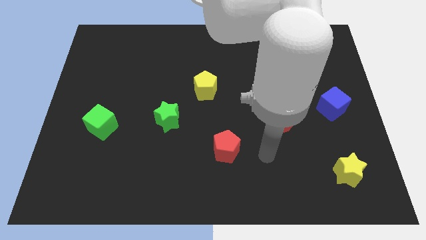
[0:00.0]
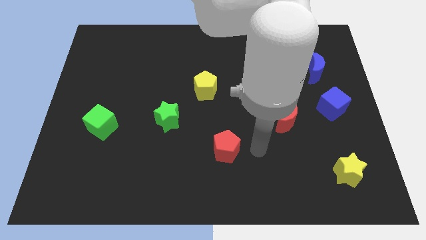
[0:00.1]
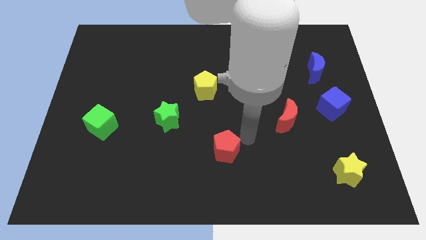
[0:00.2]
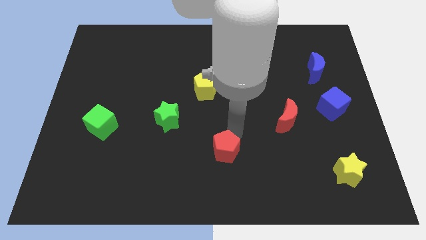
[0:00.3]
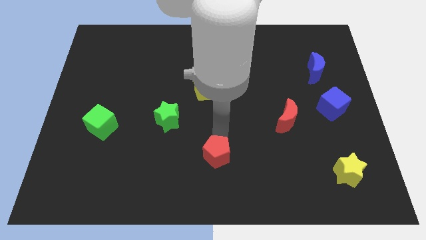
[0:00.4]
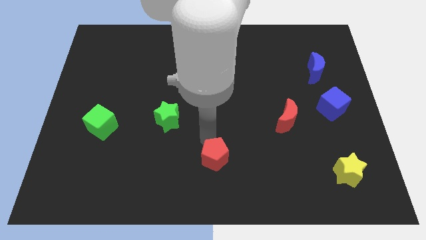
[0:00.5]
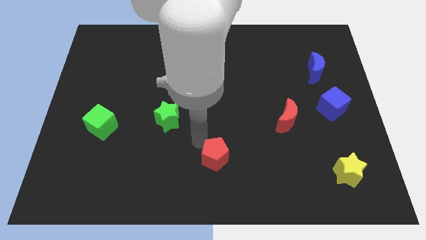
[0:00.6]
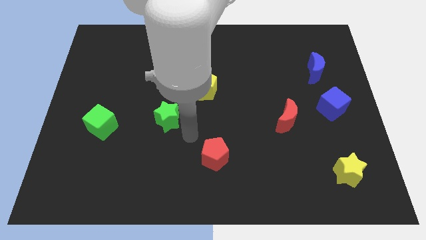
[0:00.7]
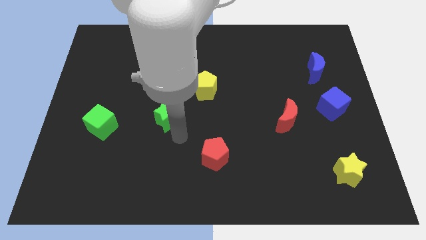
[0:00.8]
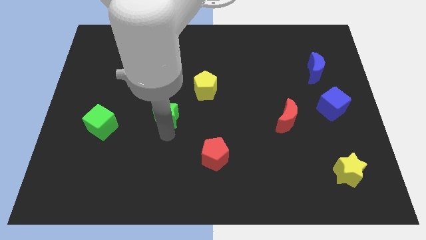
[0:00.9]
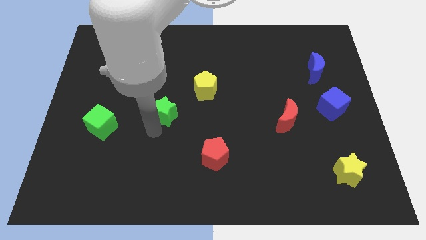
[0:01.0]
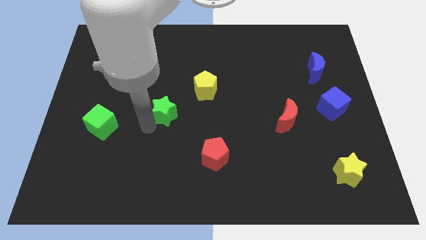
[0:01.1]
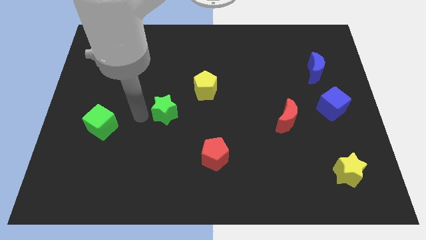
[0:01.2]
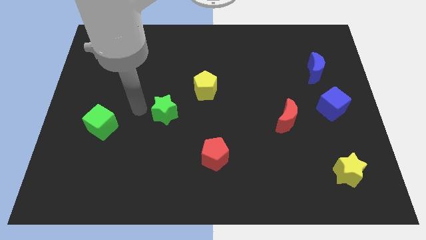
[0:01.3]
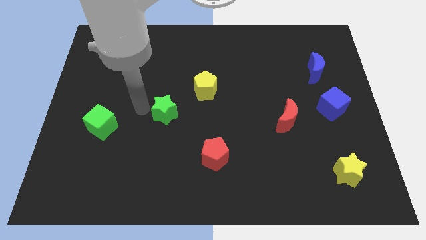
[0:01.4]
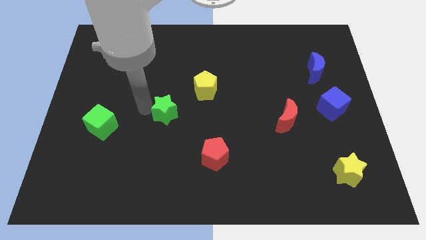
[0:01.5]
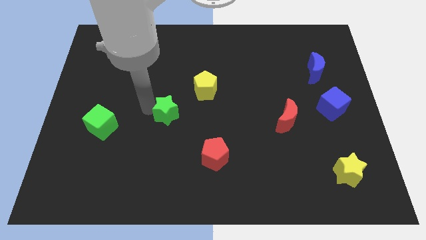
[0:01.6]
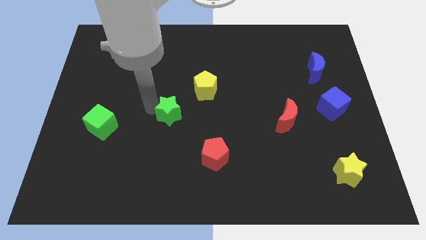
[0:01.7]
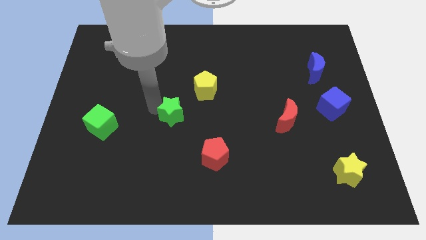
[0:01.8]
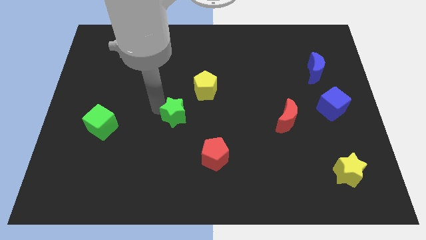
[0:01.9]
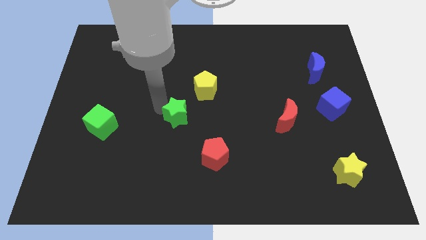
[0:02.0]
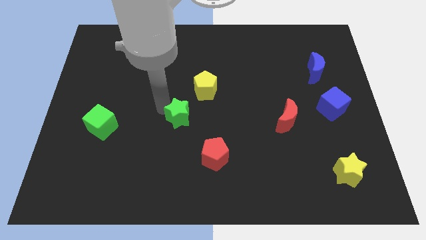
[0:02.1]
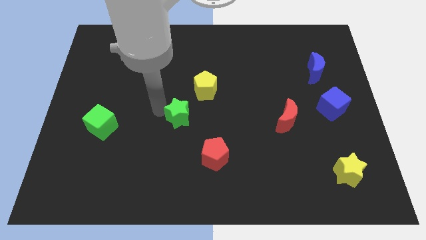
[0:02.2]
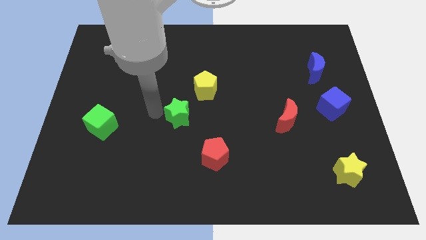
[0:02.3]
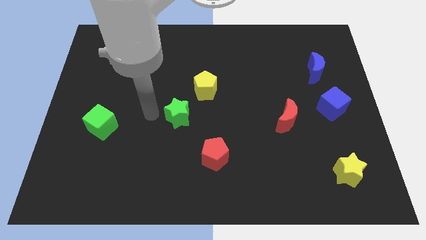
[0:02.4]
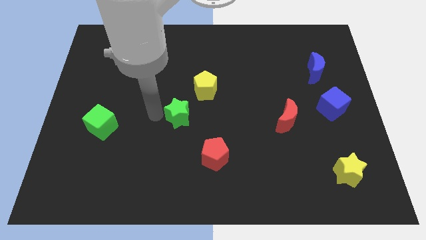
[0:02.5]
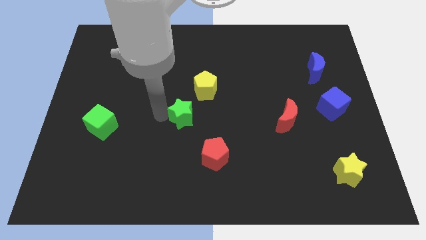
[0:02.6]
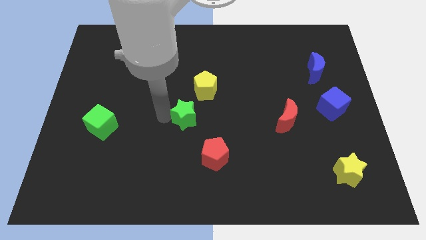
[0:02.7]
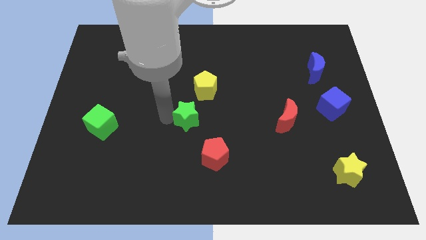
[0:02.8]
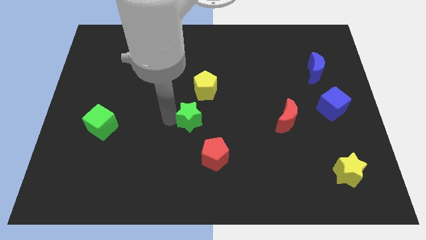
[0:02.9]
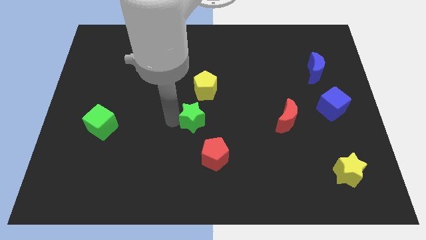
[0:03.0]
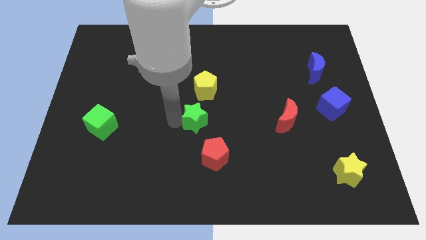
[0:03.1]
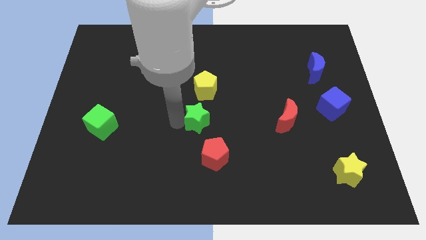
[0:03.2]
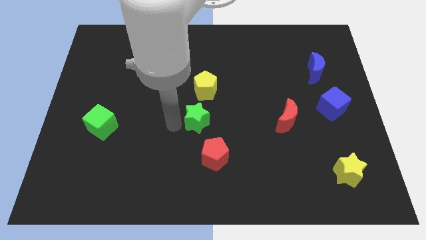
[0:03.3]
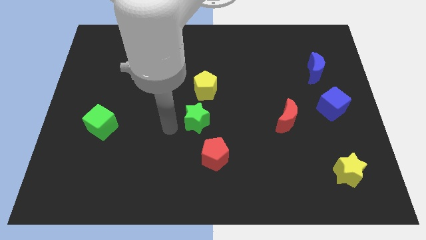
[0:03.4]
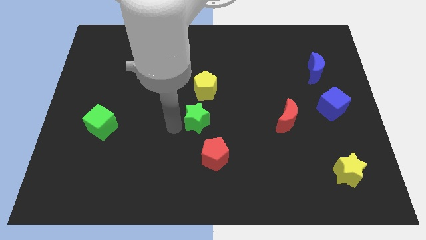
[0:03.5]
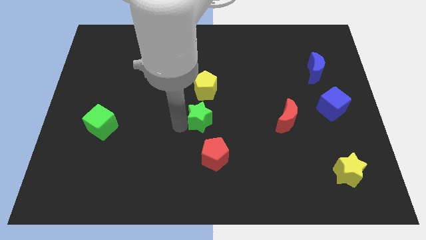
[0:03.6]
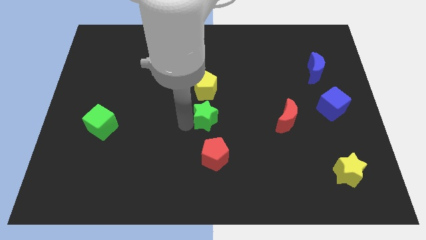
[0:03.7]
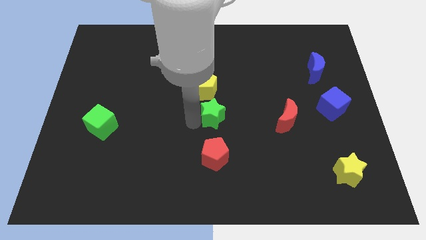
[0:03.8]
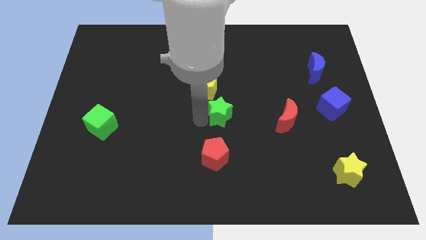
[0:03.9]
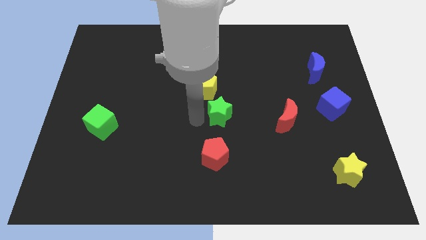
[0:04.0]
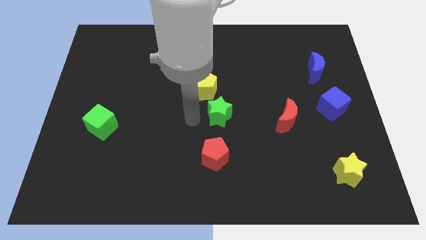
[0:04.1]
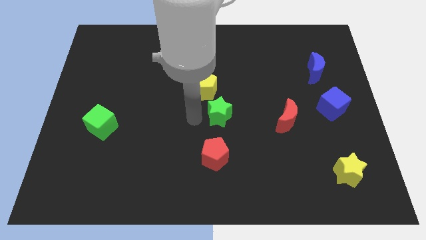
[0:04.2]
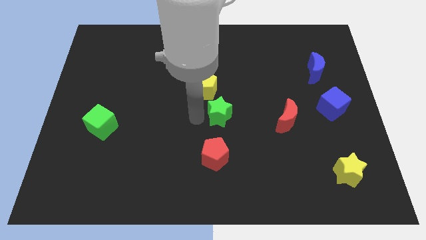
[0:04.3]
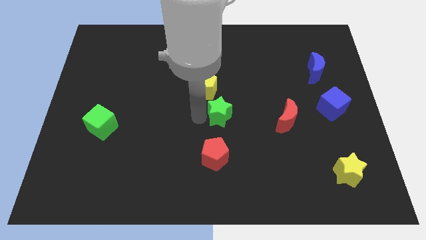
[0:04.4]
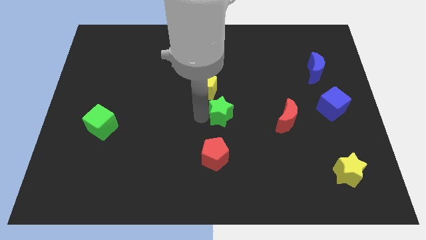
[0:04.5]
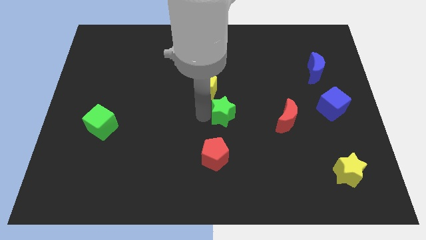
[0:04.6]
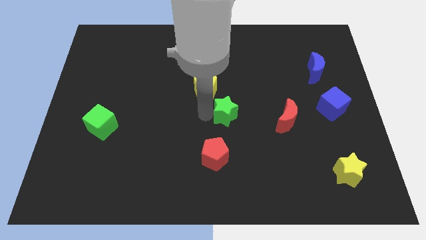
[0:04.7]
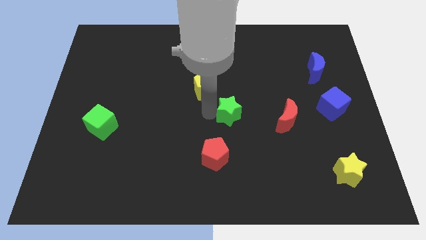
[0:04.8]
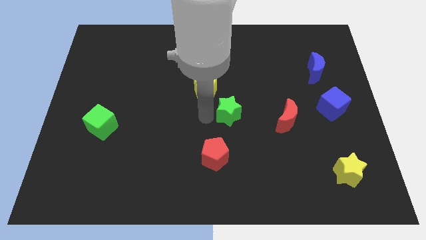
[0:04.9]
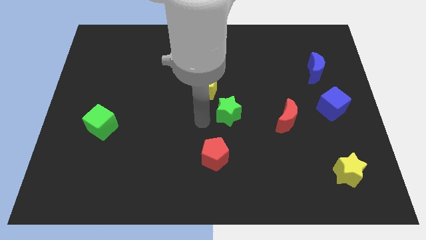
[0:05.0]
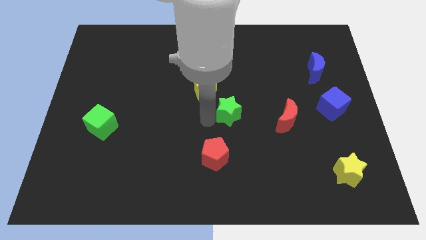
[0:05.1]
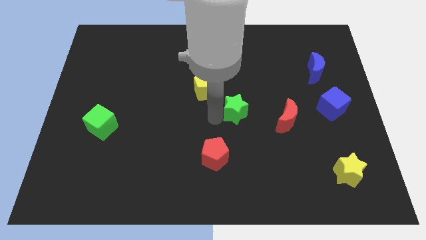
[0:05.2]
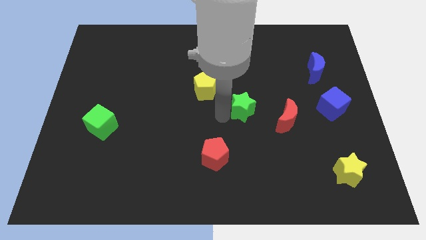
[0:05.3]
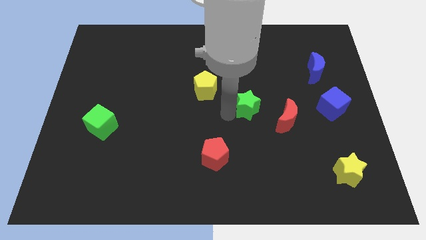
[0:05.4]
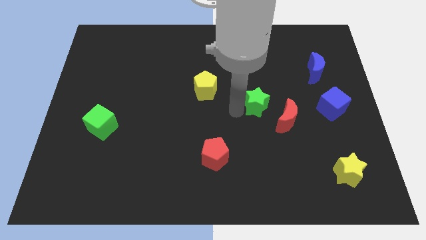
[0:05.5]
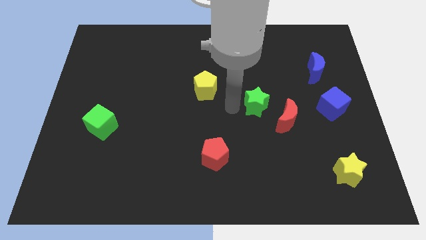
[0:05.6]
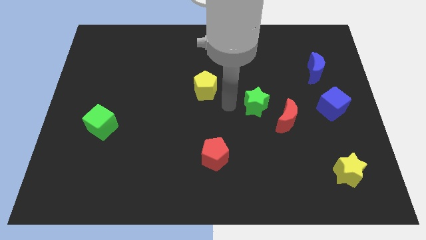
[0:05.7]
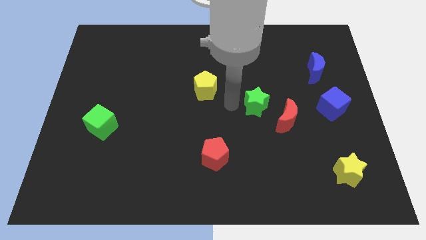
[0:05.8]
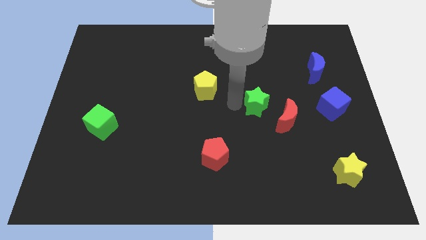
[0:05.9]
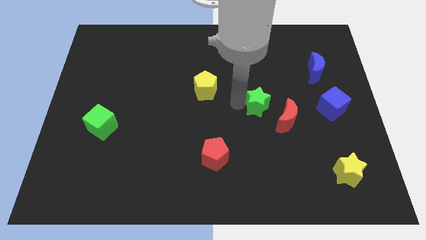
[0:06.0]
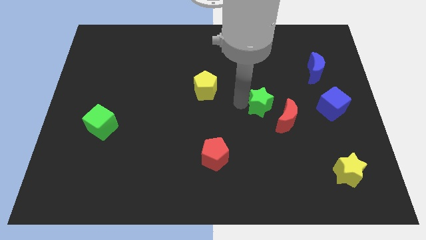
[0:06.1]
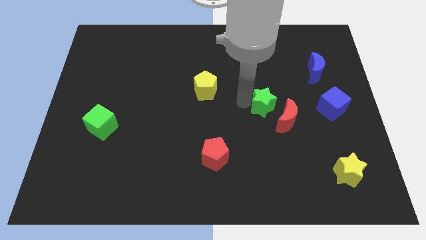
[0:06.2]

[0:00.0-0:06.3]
slide the green star to the left side of the blue cube

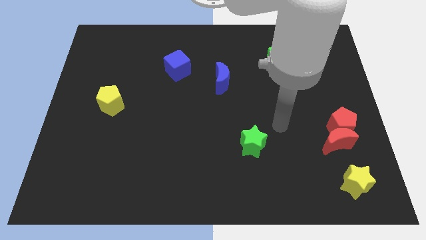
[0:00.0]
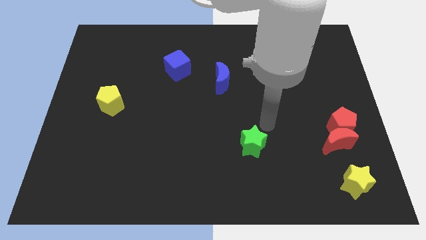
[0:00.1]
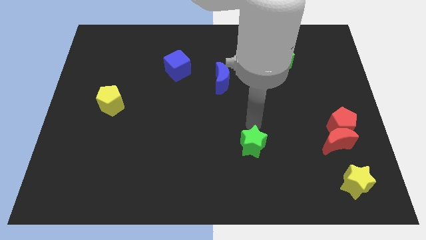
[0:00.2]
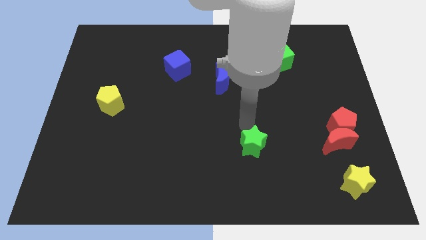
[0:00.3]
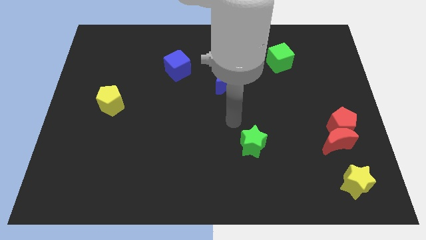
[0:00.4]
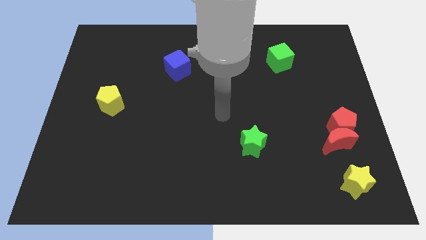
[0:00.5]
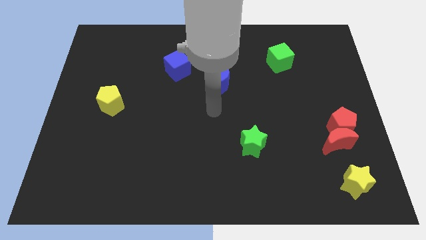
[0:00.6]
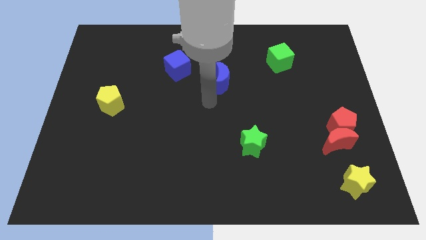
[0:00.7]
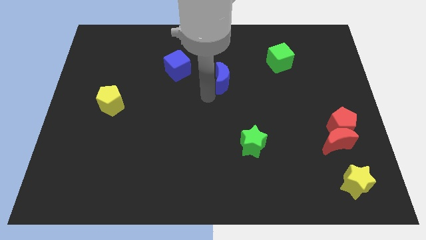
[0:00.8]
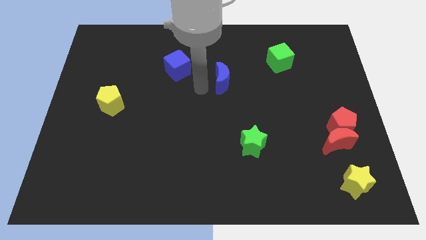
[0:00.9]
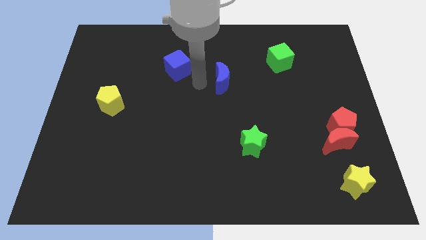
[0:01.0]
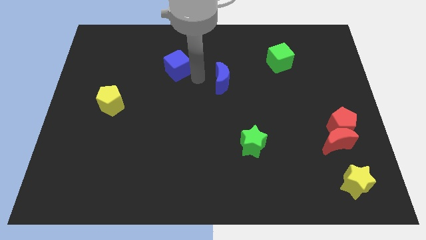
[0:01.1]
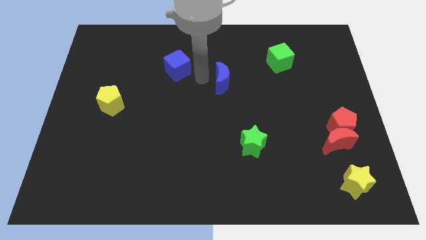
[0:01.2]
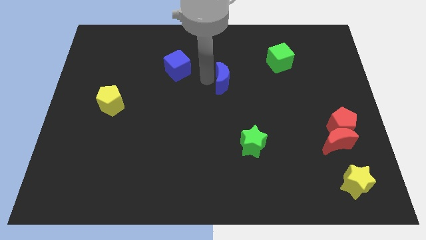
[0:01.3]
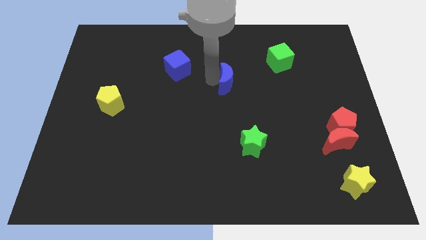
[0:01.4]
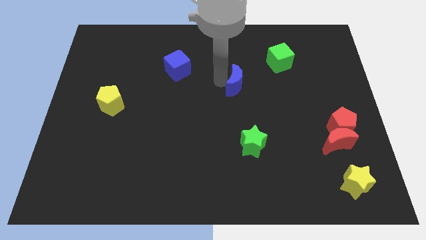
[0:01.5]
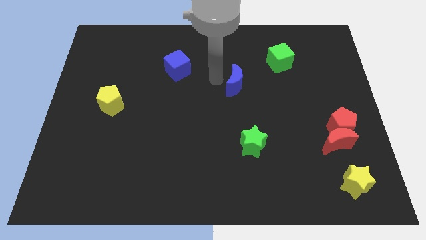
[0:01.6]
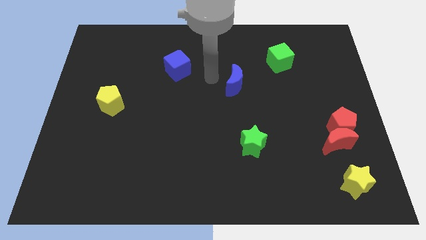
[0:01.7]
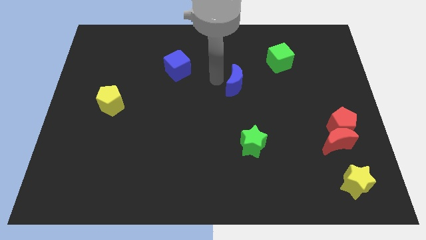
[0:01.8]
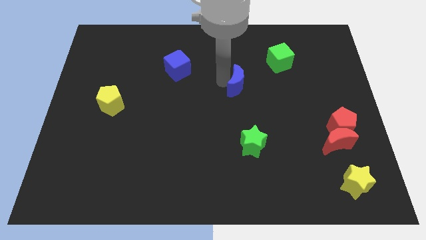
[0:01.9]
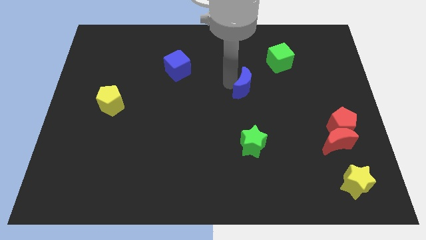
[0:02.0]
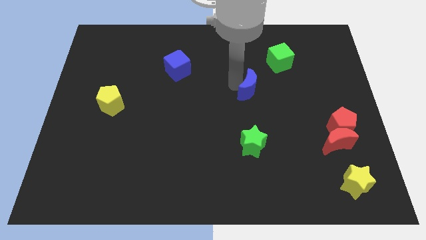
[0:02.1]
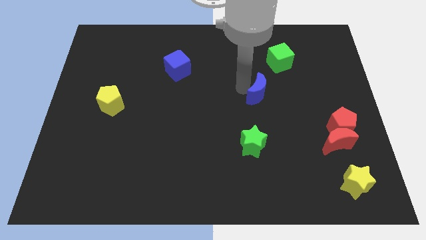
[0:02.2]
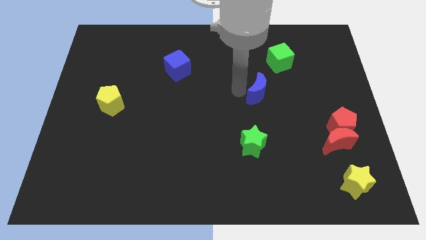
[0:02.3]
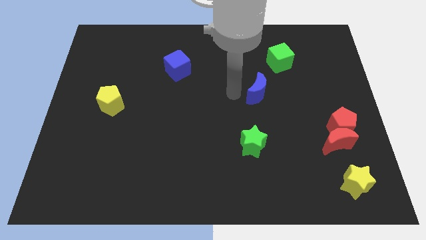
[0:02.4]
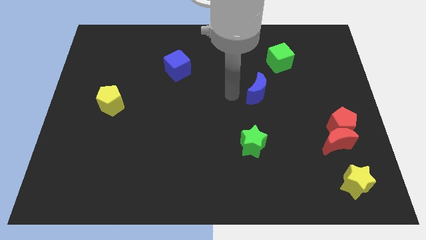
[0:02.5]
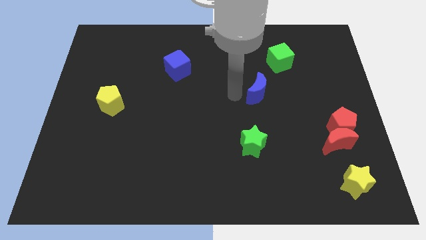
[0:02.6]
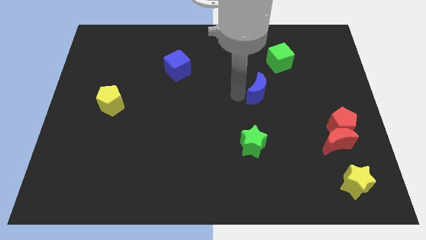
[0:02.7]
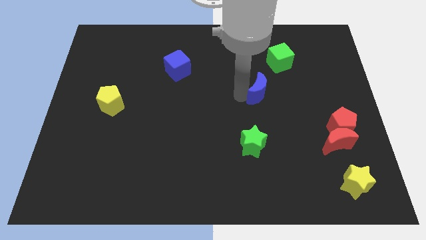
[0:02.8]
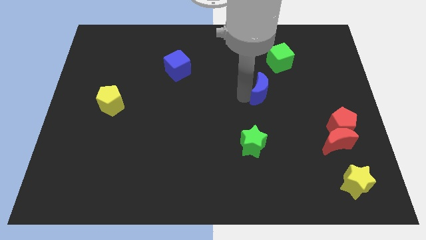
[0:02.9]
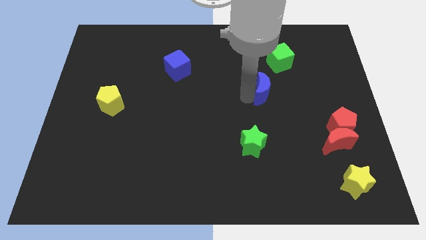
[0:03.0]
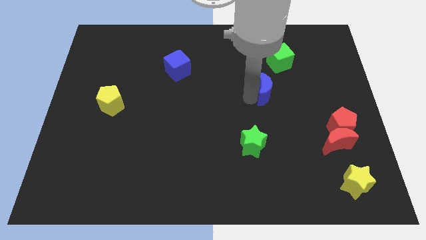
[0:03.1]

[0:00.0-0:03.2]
put the blue moon below the green cube
